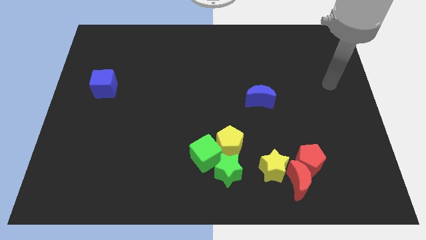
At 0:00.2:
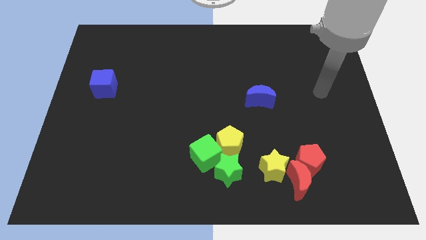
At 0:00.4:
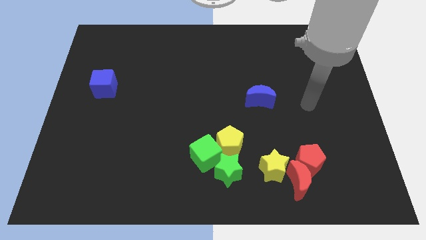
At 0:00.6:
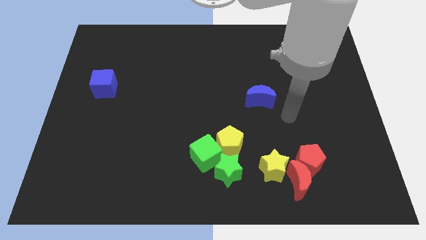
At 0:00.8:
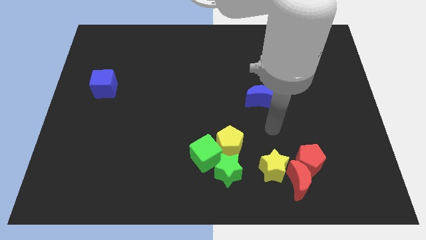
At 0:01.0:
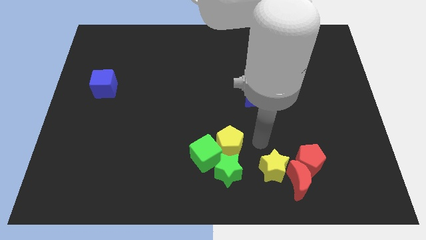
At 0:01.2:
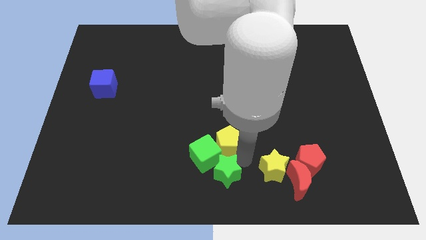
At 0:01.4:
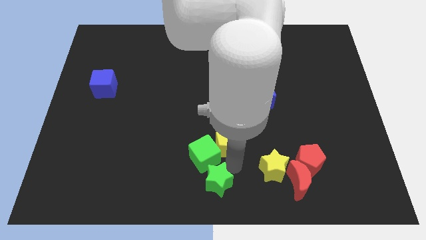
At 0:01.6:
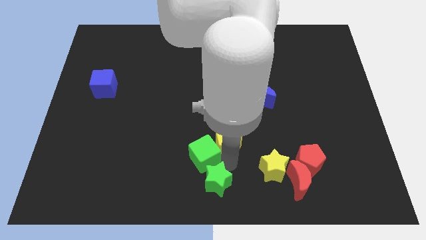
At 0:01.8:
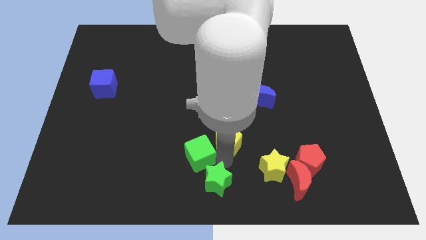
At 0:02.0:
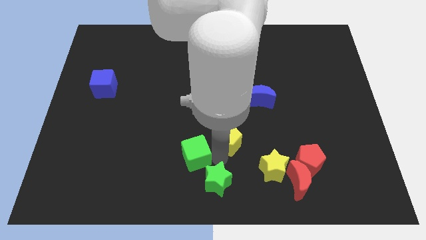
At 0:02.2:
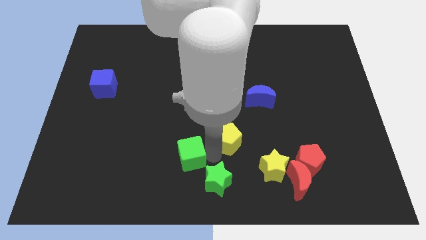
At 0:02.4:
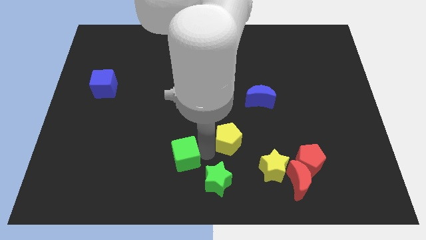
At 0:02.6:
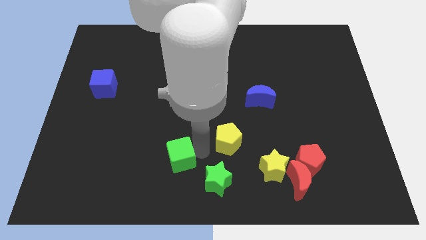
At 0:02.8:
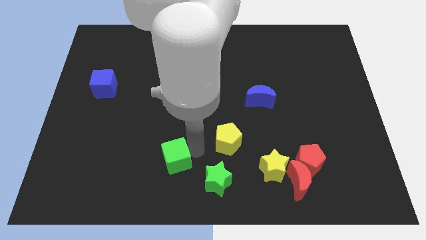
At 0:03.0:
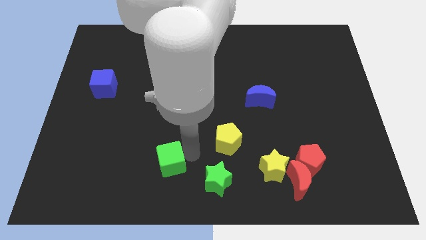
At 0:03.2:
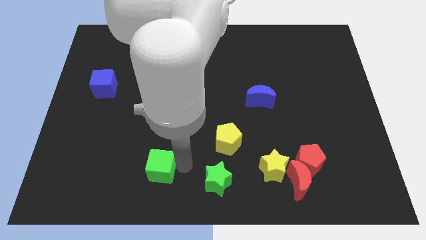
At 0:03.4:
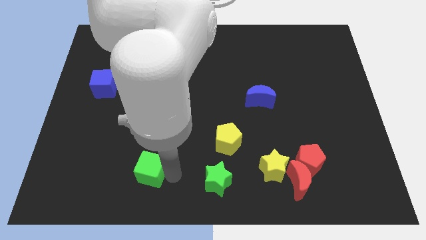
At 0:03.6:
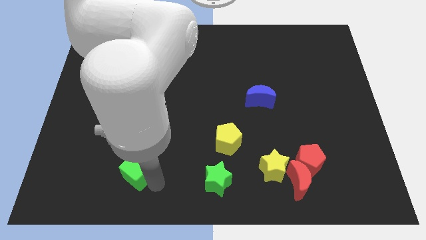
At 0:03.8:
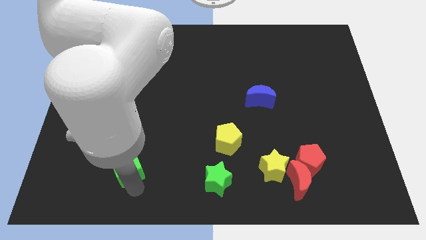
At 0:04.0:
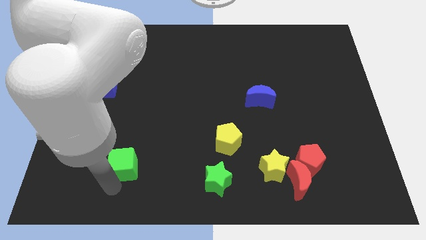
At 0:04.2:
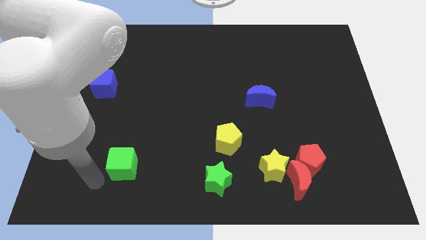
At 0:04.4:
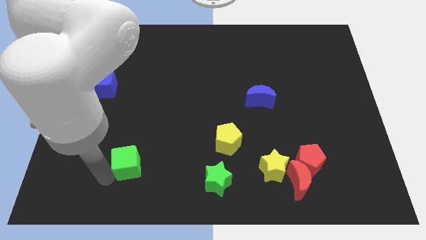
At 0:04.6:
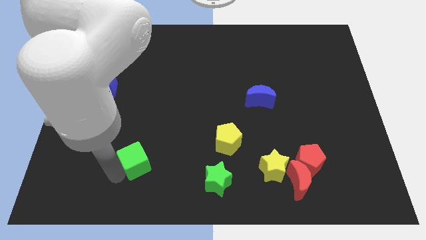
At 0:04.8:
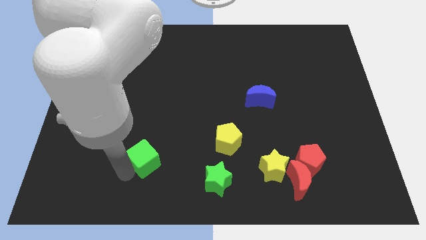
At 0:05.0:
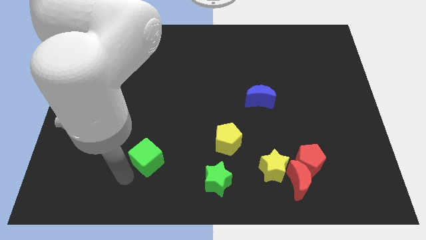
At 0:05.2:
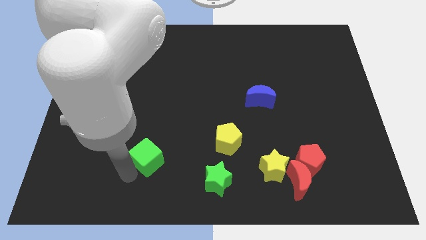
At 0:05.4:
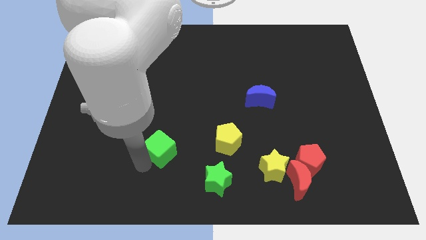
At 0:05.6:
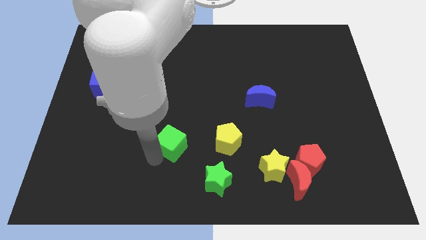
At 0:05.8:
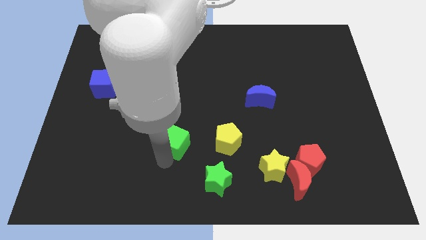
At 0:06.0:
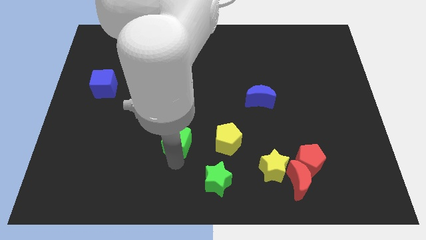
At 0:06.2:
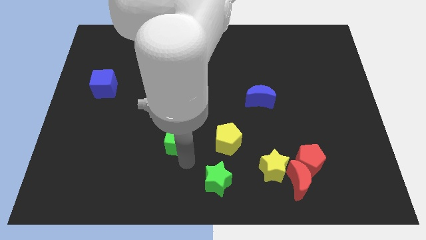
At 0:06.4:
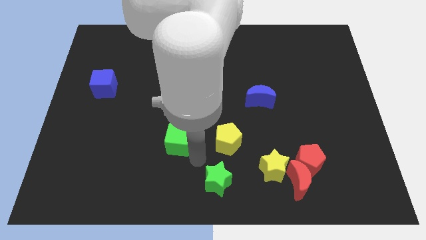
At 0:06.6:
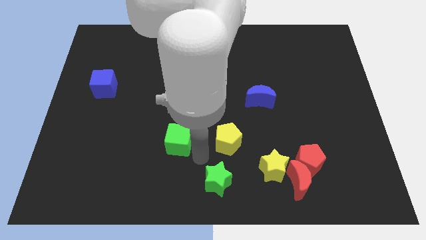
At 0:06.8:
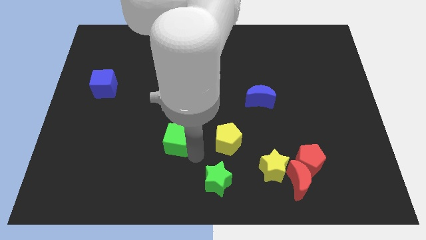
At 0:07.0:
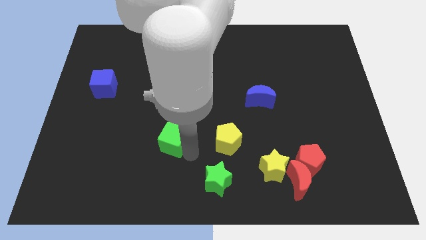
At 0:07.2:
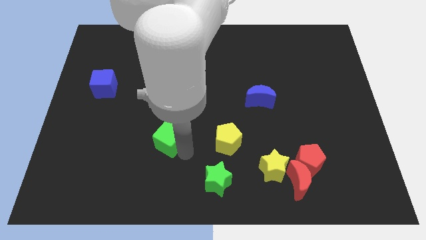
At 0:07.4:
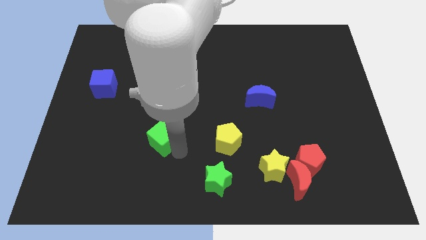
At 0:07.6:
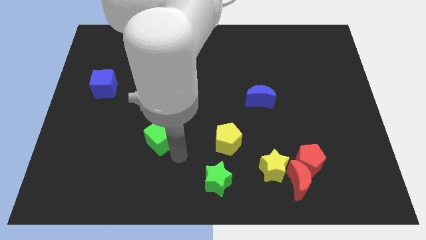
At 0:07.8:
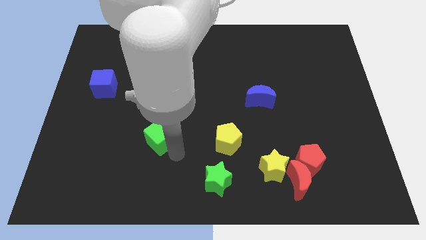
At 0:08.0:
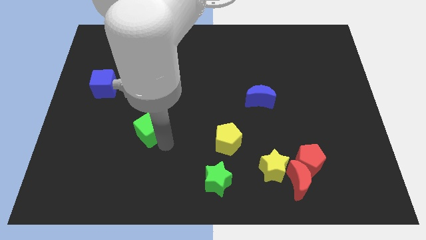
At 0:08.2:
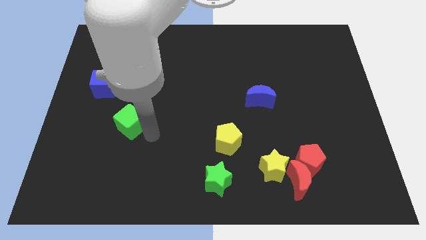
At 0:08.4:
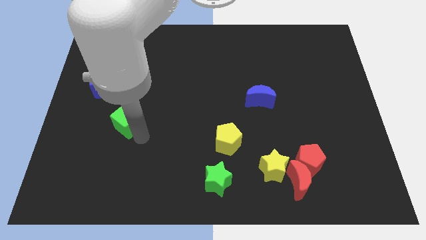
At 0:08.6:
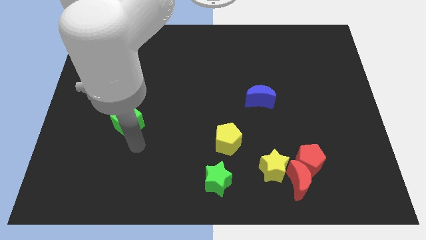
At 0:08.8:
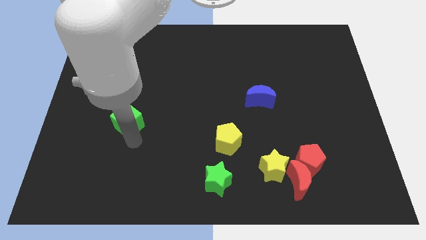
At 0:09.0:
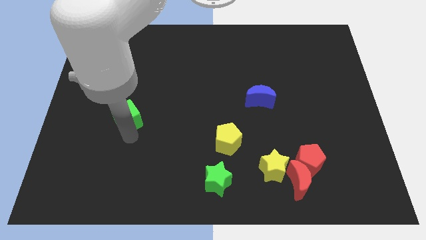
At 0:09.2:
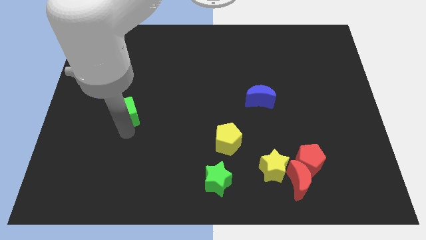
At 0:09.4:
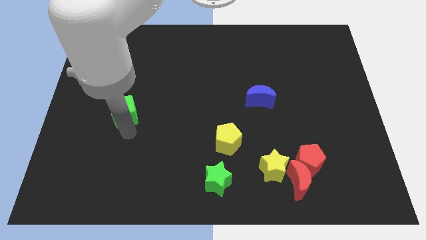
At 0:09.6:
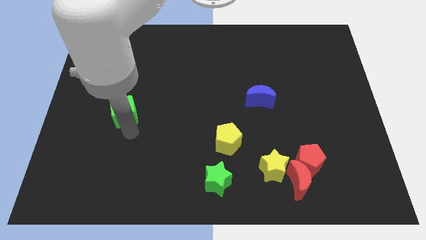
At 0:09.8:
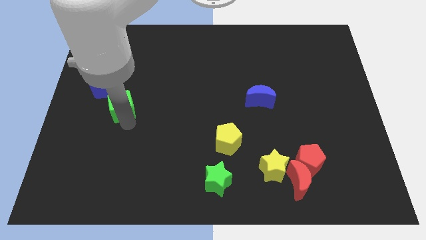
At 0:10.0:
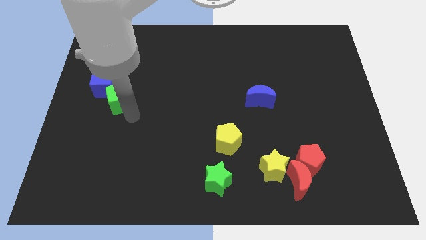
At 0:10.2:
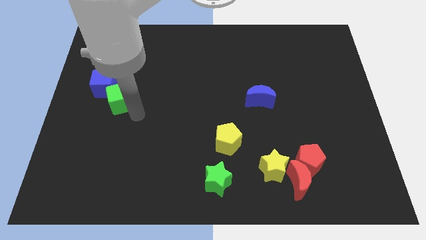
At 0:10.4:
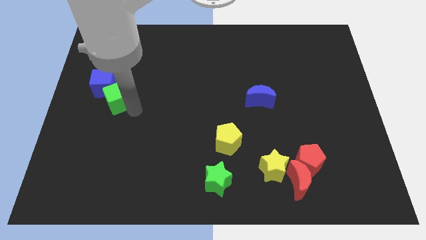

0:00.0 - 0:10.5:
slide the green cube to the blue cube

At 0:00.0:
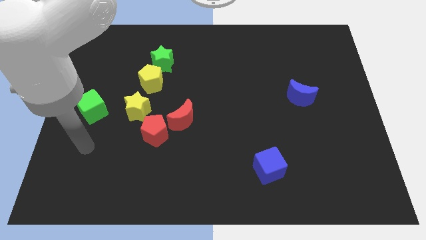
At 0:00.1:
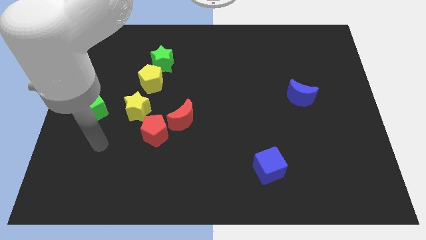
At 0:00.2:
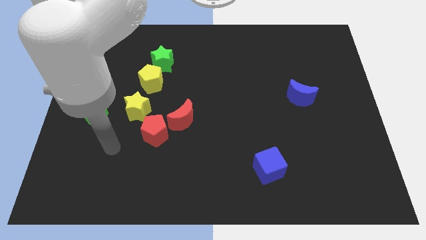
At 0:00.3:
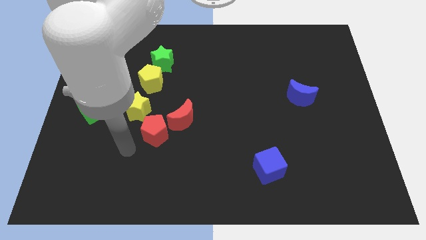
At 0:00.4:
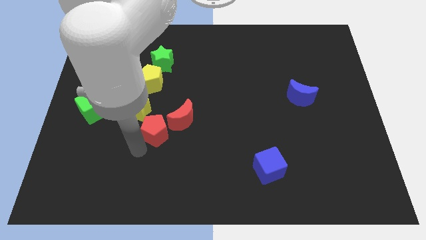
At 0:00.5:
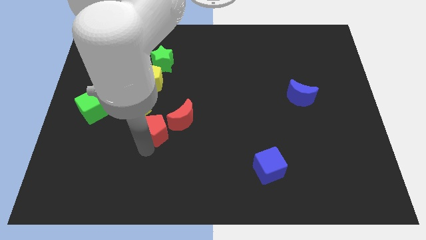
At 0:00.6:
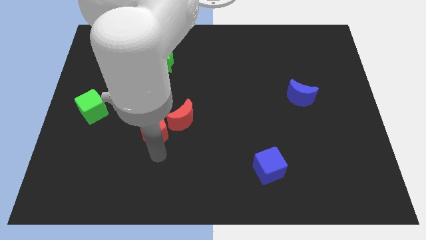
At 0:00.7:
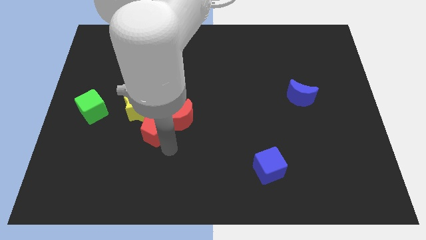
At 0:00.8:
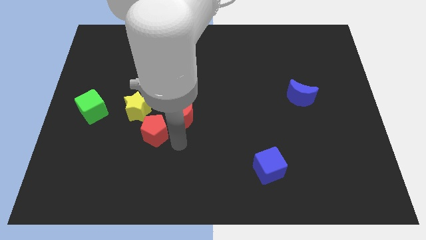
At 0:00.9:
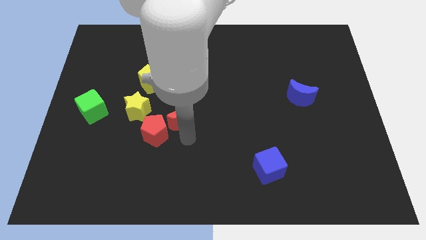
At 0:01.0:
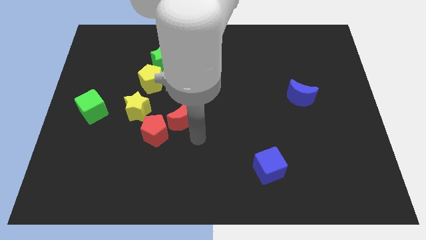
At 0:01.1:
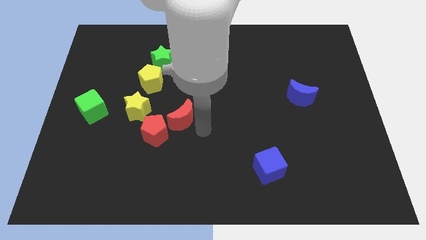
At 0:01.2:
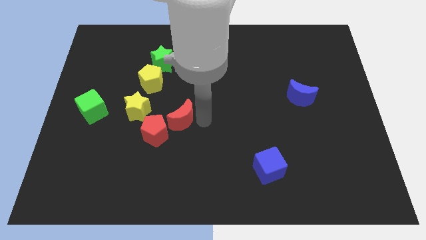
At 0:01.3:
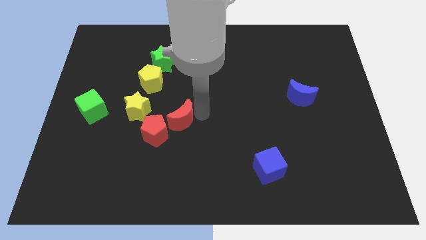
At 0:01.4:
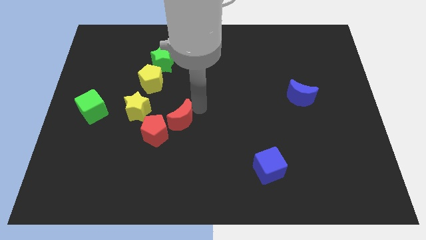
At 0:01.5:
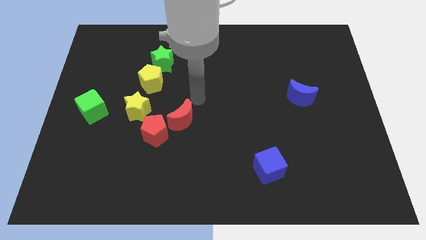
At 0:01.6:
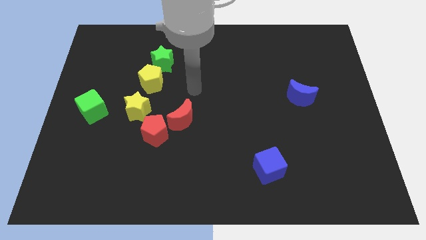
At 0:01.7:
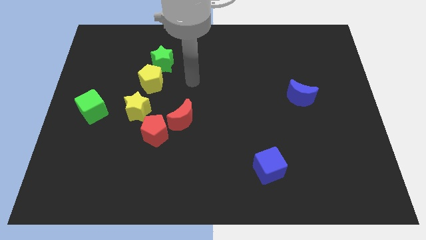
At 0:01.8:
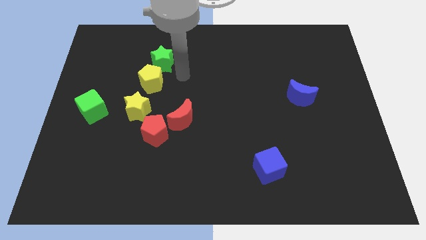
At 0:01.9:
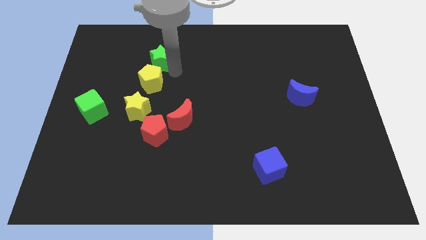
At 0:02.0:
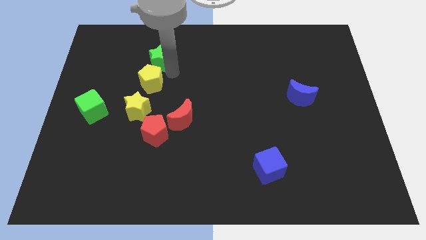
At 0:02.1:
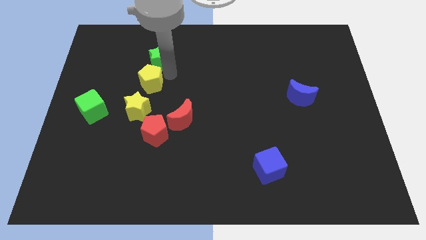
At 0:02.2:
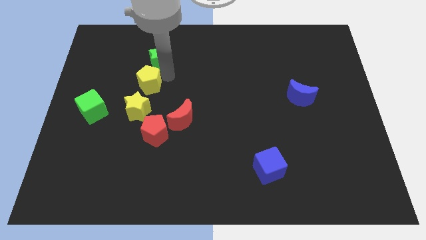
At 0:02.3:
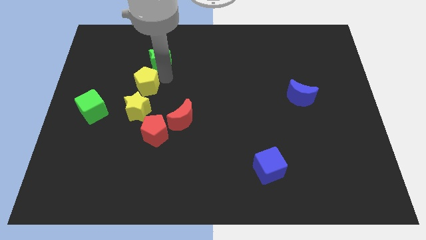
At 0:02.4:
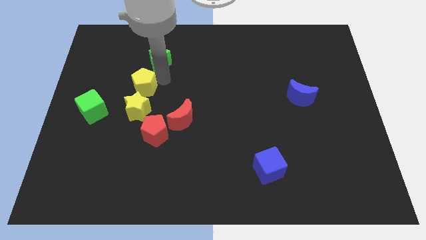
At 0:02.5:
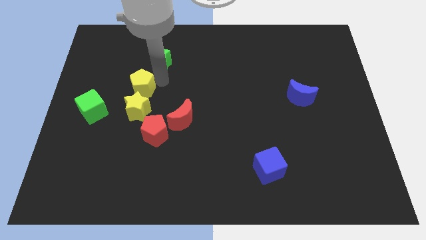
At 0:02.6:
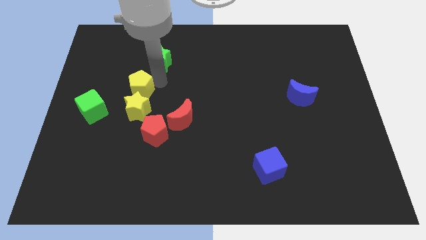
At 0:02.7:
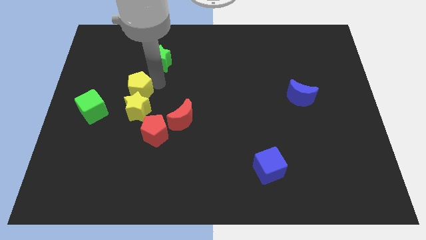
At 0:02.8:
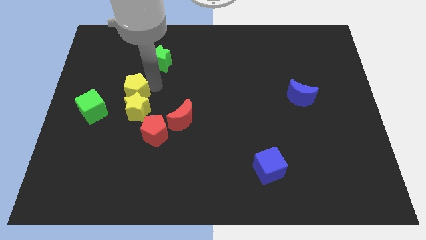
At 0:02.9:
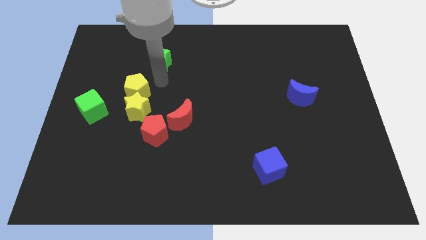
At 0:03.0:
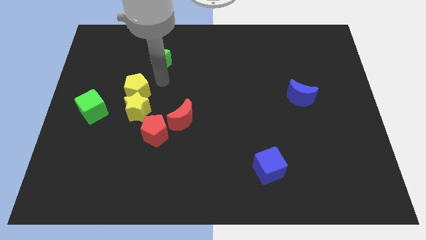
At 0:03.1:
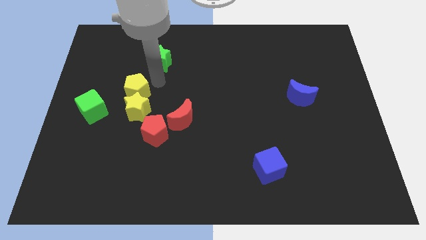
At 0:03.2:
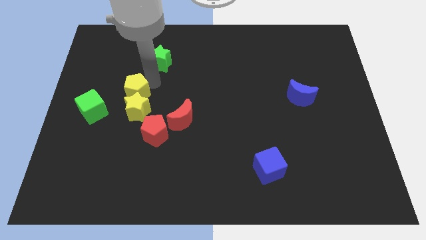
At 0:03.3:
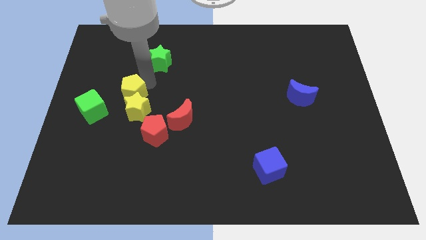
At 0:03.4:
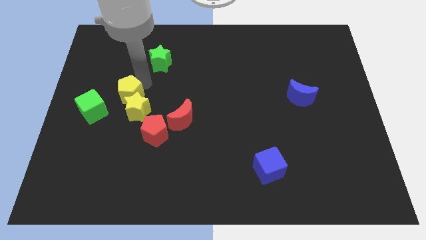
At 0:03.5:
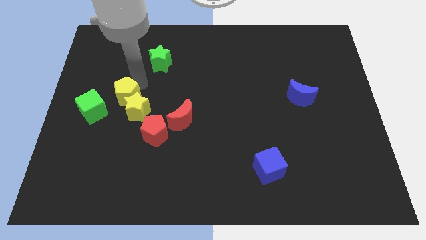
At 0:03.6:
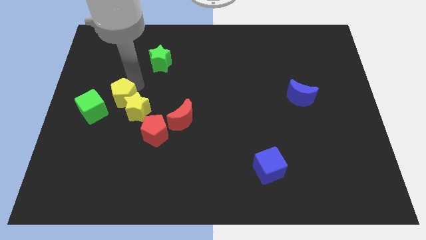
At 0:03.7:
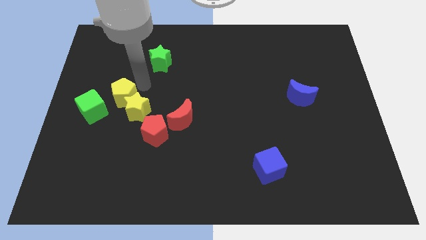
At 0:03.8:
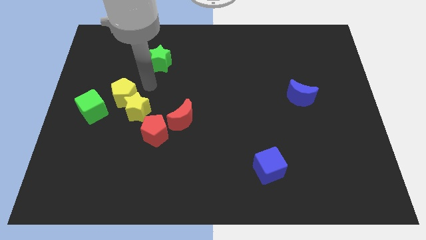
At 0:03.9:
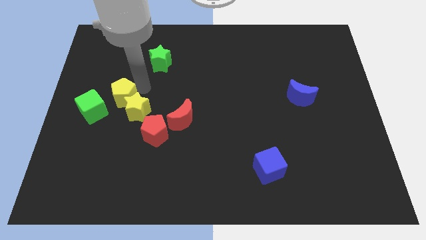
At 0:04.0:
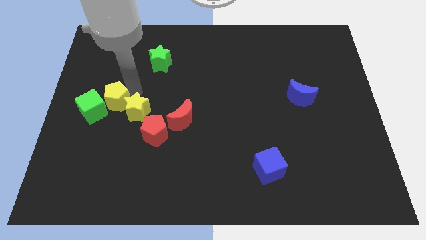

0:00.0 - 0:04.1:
push the yellow pentagon next to the green cube
